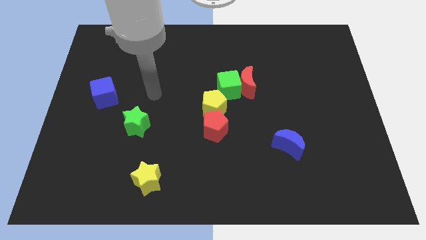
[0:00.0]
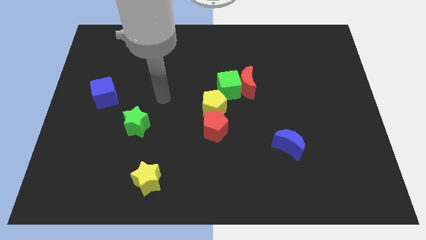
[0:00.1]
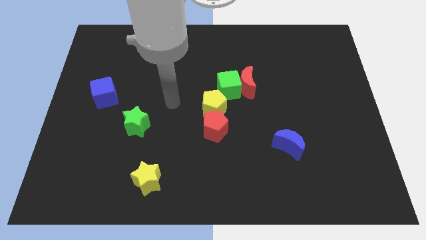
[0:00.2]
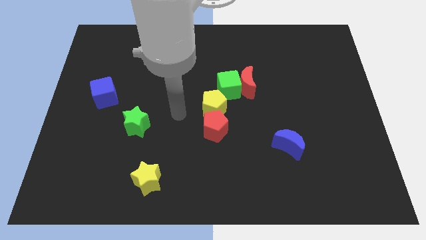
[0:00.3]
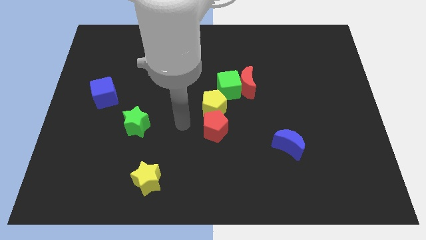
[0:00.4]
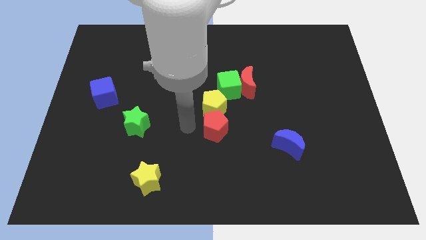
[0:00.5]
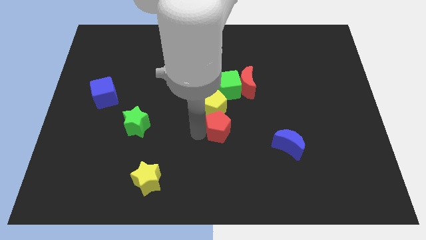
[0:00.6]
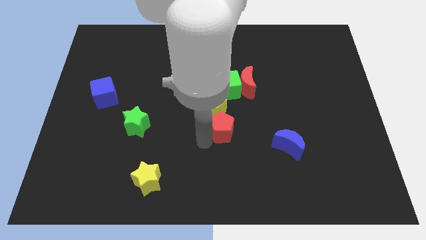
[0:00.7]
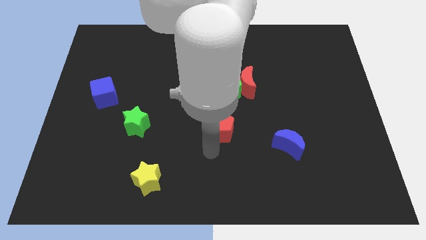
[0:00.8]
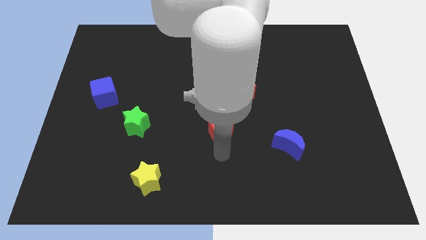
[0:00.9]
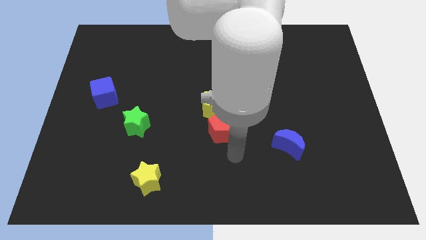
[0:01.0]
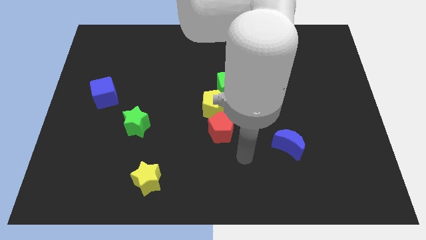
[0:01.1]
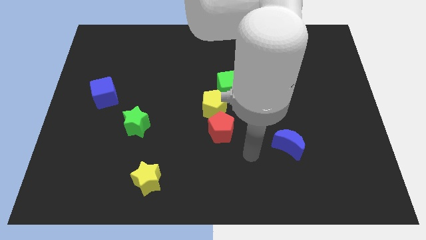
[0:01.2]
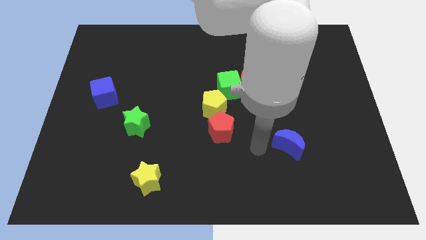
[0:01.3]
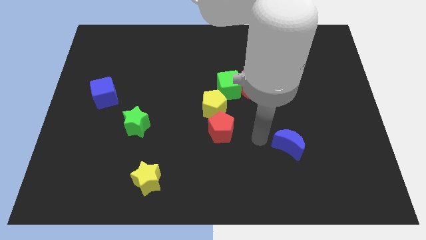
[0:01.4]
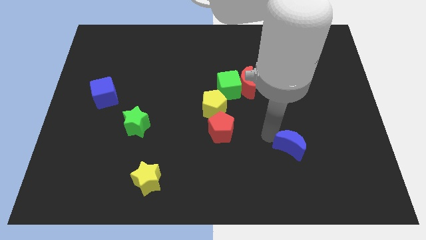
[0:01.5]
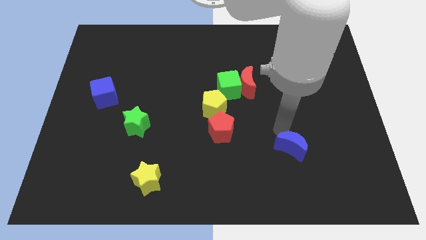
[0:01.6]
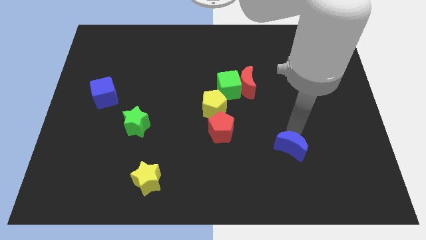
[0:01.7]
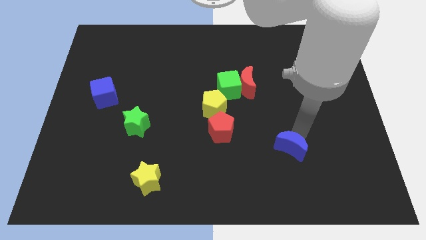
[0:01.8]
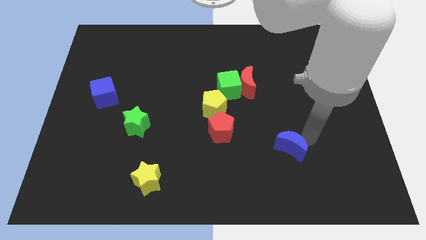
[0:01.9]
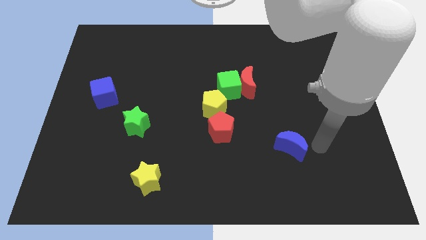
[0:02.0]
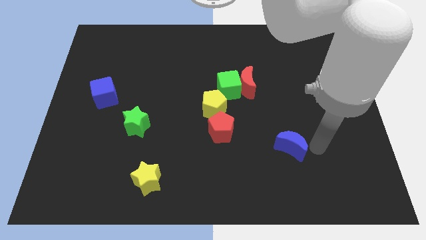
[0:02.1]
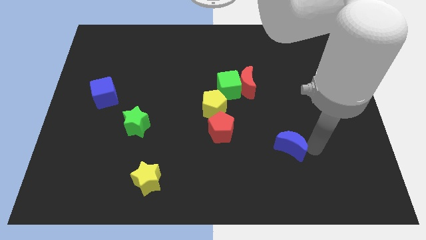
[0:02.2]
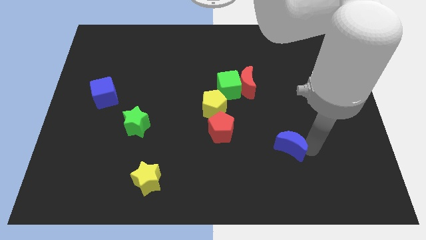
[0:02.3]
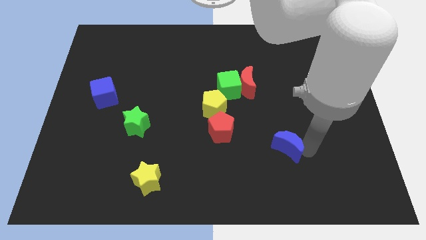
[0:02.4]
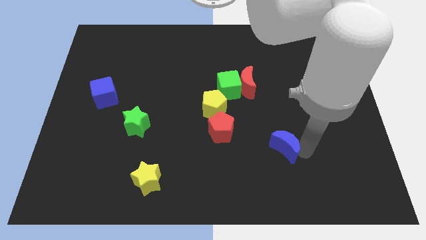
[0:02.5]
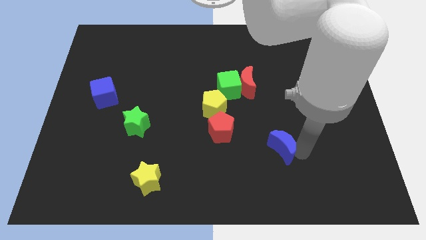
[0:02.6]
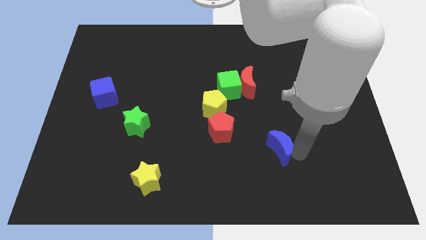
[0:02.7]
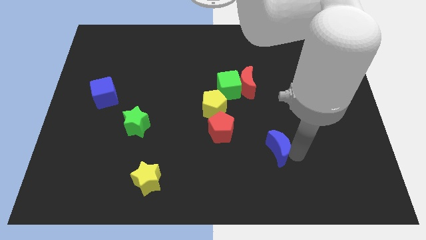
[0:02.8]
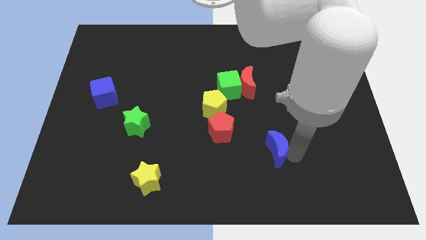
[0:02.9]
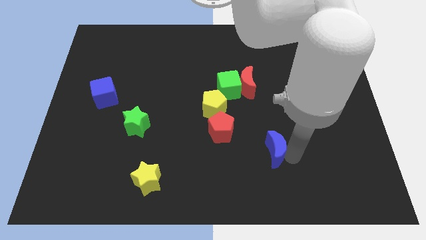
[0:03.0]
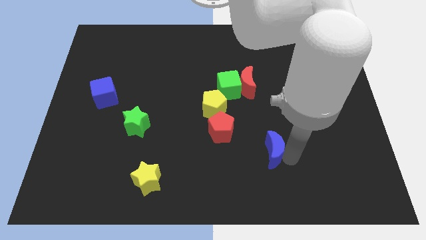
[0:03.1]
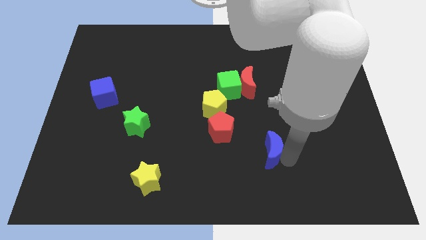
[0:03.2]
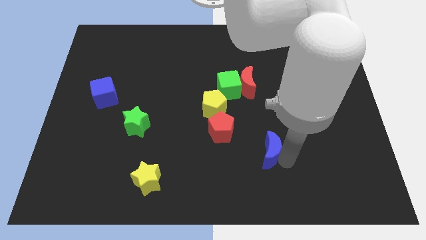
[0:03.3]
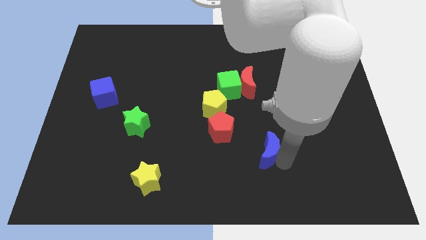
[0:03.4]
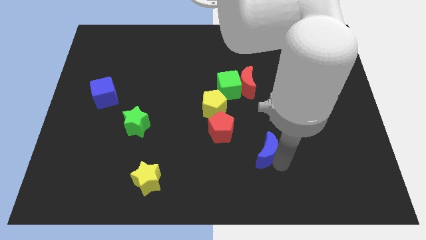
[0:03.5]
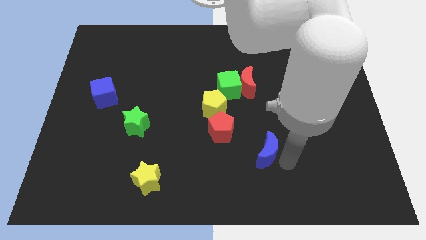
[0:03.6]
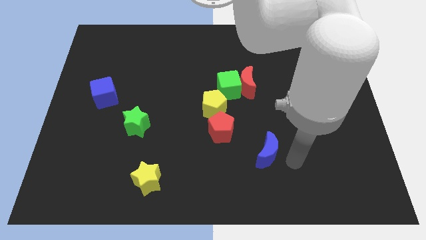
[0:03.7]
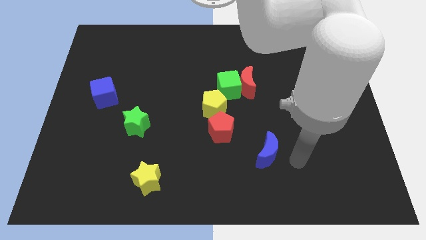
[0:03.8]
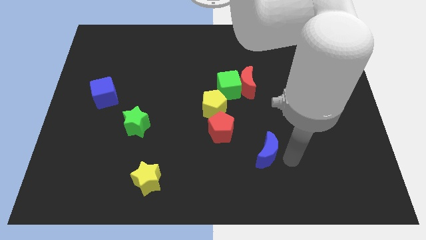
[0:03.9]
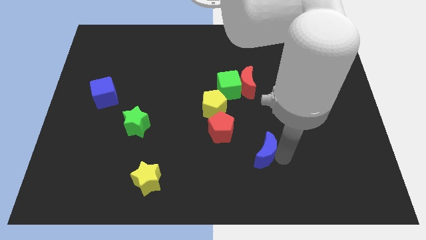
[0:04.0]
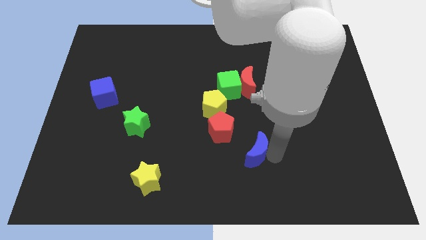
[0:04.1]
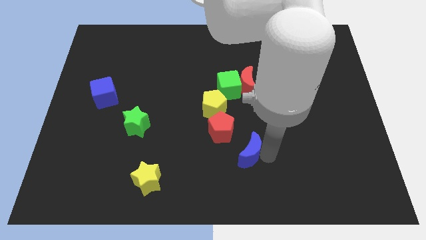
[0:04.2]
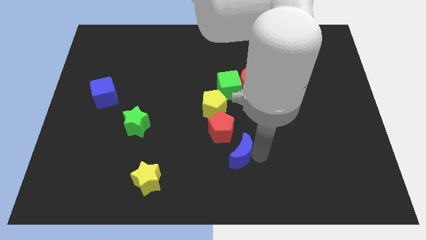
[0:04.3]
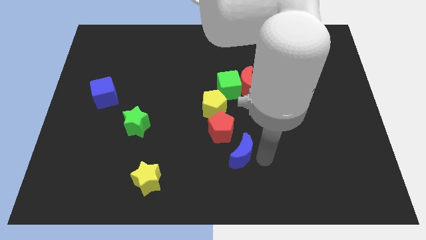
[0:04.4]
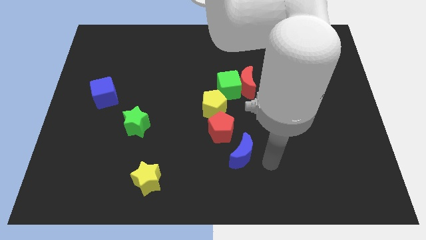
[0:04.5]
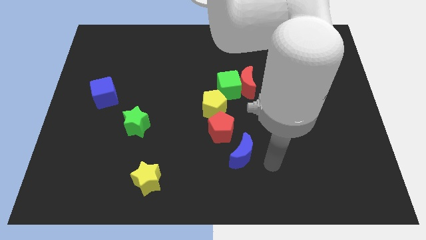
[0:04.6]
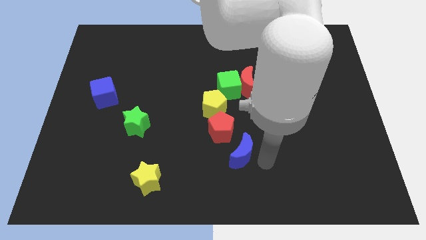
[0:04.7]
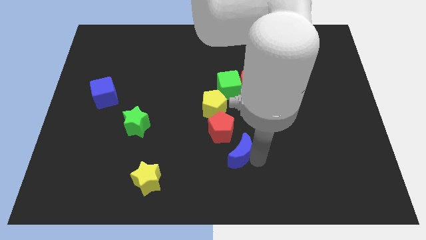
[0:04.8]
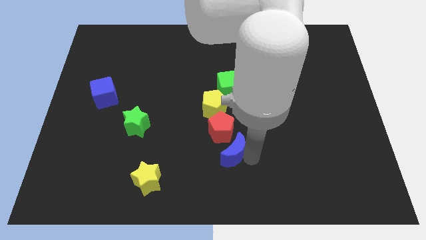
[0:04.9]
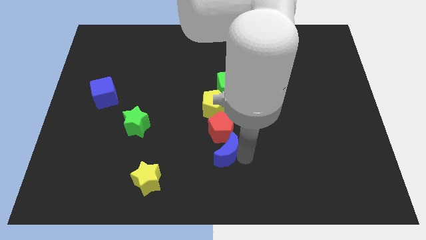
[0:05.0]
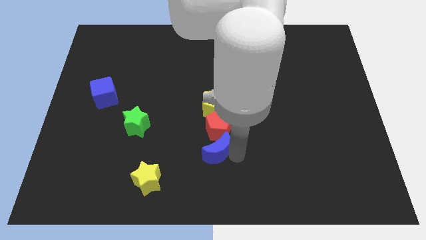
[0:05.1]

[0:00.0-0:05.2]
put the blue moon diagonally down and to the left of the red pentagon

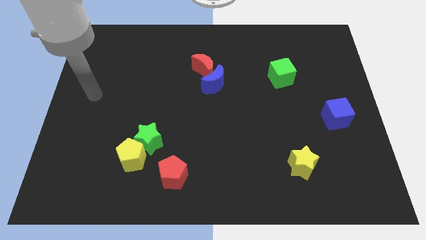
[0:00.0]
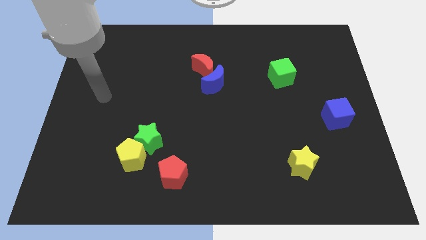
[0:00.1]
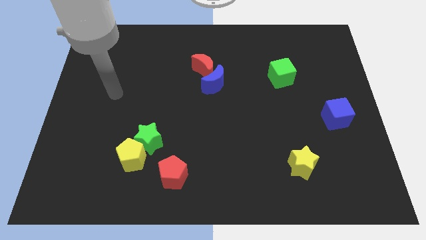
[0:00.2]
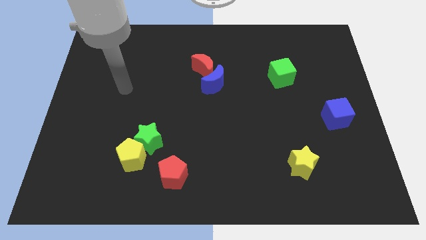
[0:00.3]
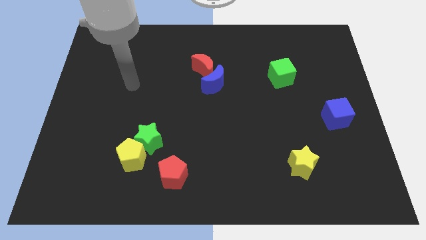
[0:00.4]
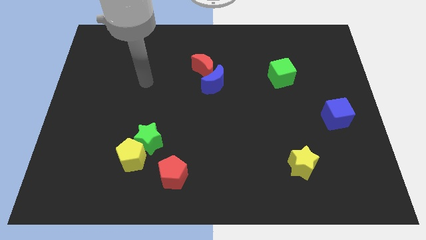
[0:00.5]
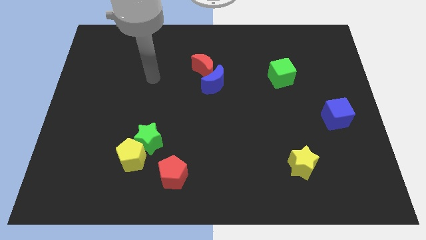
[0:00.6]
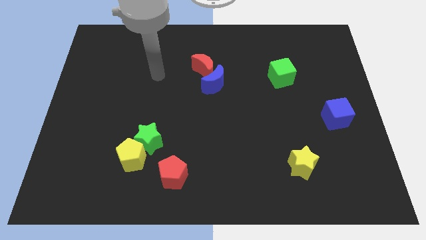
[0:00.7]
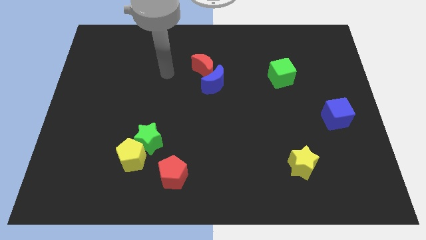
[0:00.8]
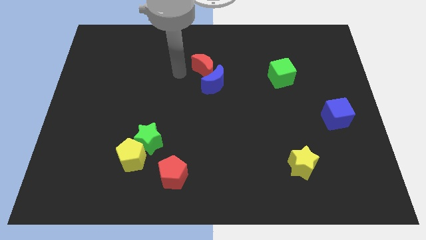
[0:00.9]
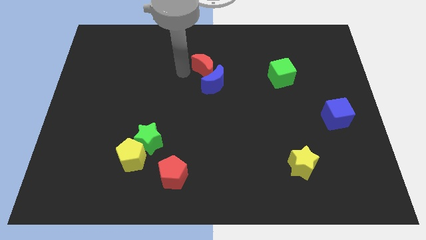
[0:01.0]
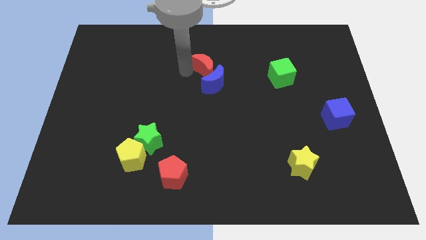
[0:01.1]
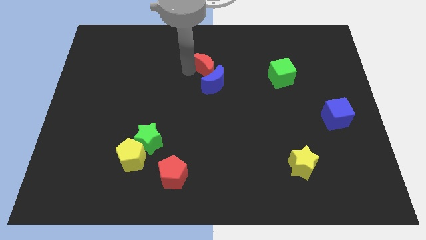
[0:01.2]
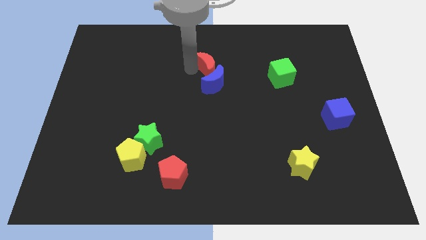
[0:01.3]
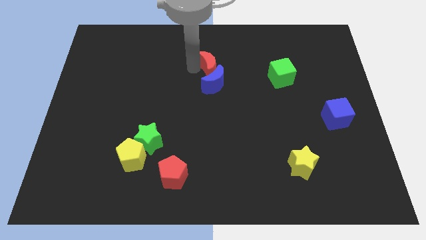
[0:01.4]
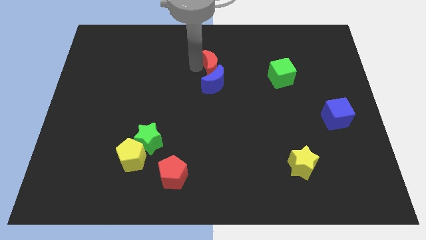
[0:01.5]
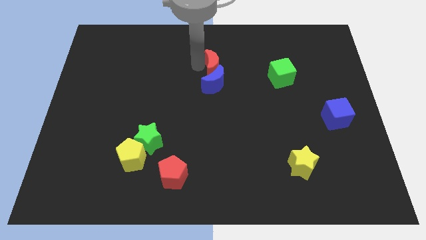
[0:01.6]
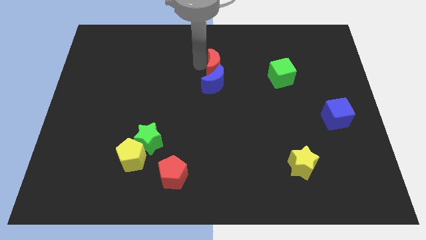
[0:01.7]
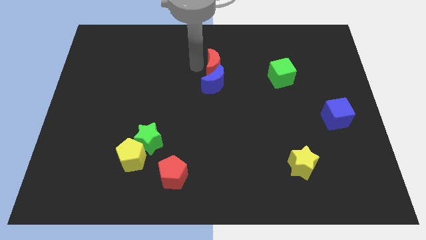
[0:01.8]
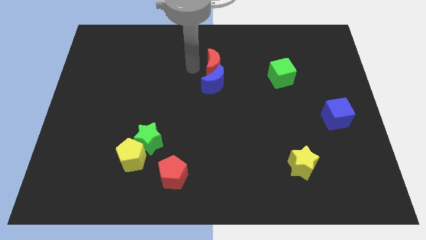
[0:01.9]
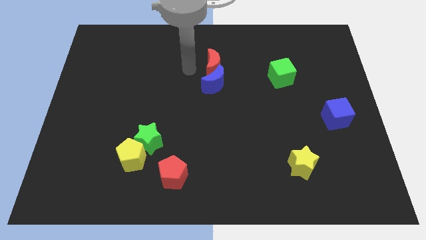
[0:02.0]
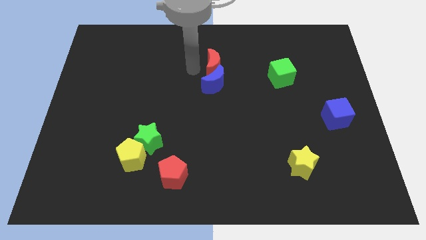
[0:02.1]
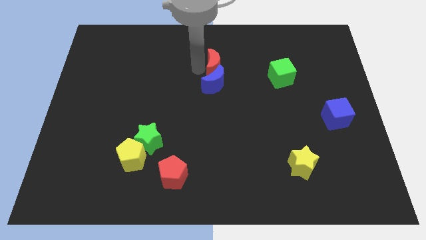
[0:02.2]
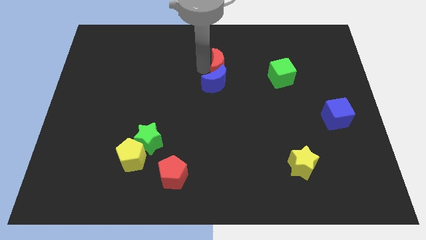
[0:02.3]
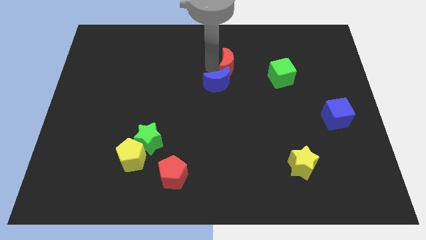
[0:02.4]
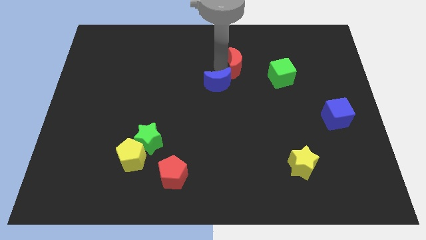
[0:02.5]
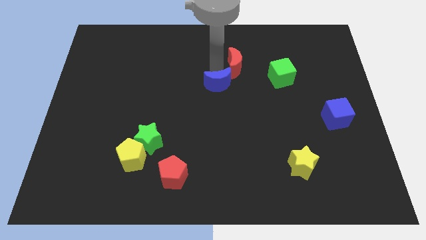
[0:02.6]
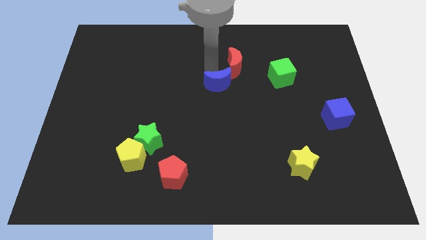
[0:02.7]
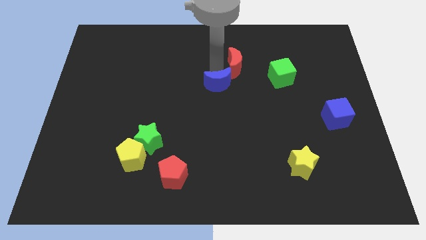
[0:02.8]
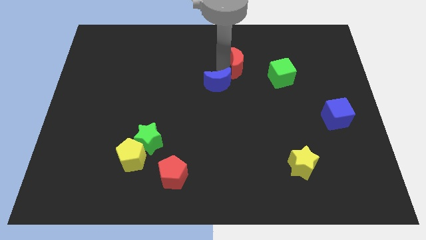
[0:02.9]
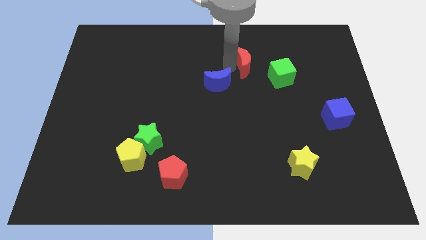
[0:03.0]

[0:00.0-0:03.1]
slide the red moon to the top left side of the green cube
